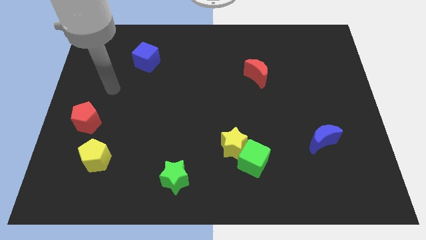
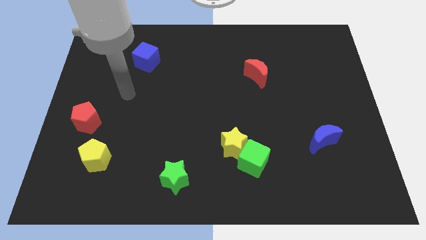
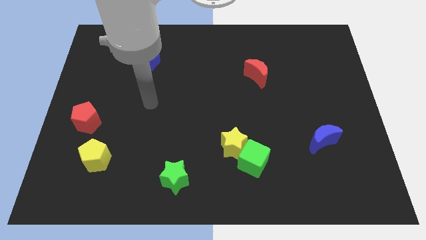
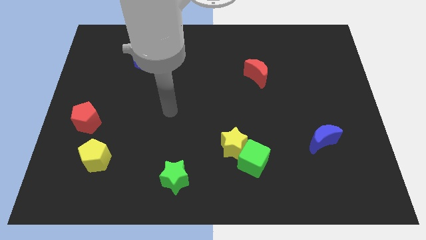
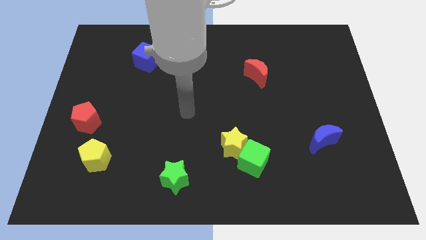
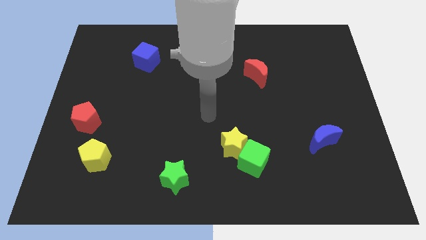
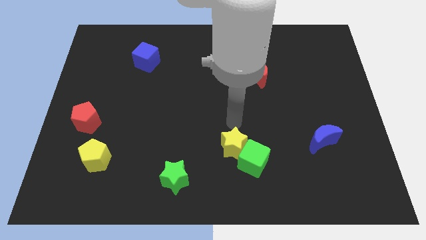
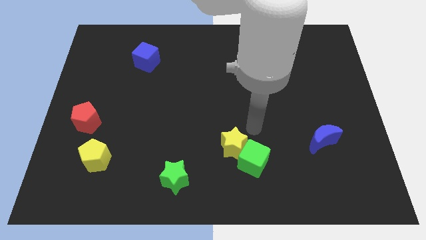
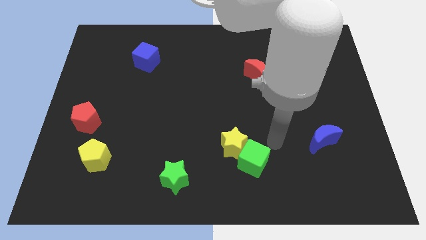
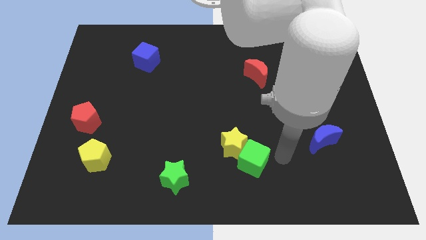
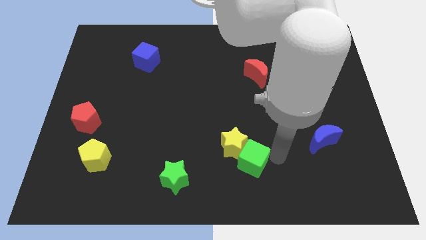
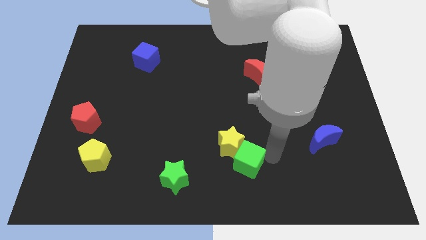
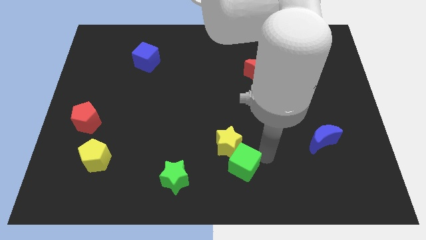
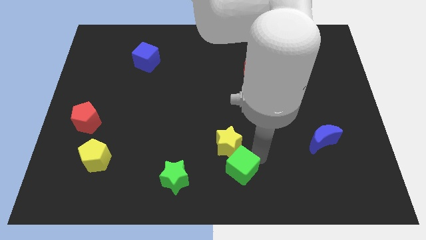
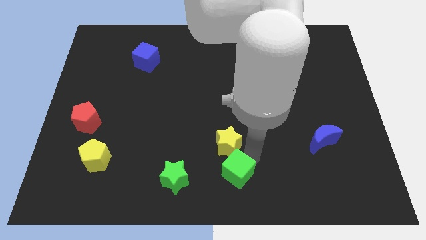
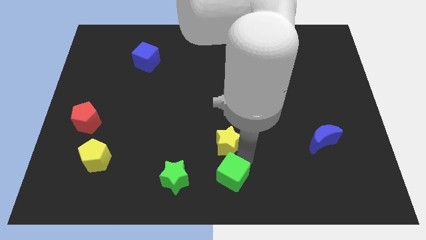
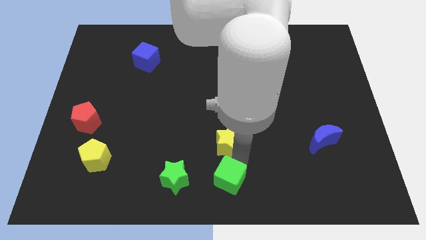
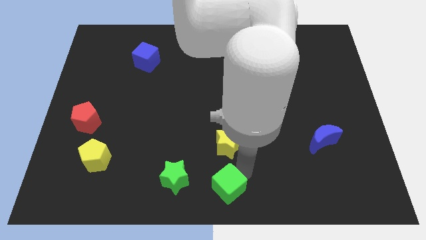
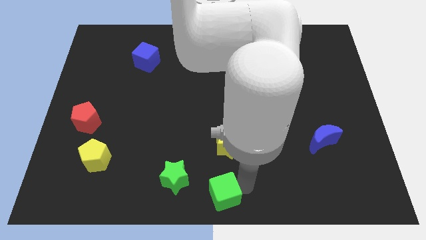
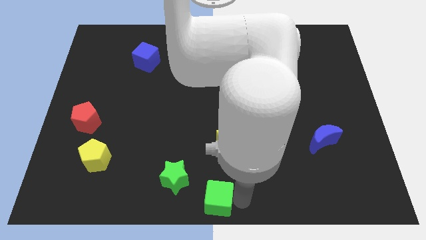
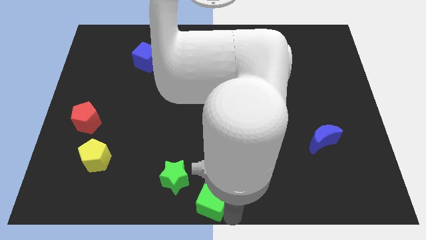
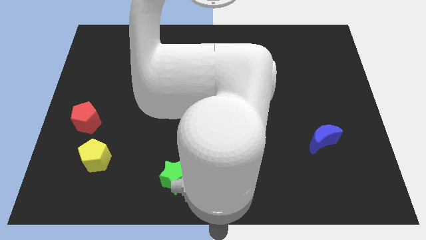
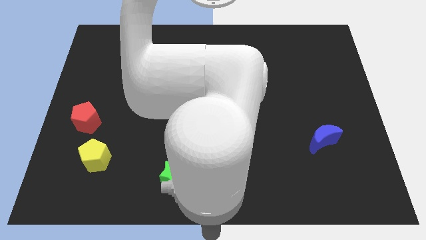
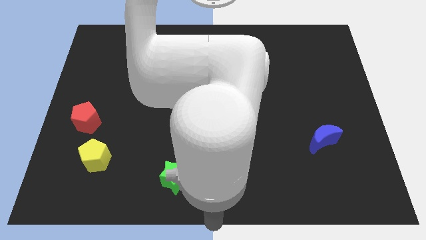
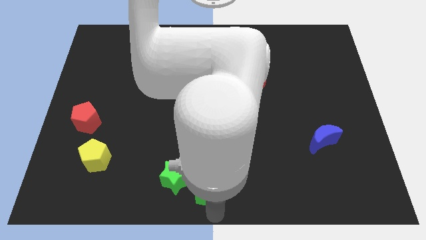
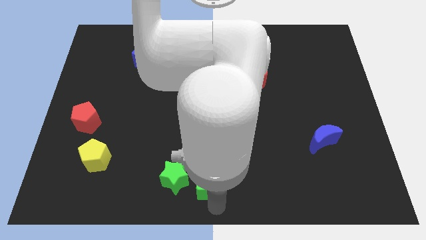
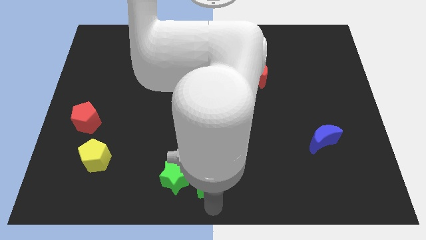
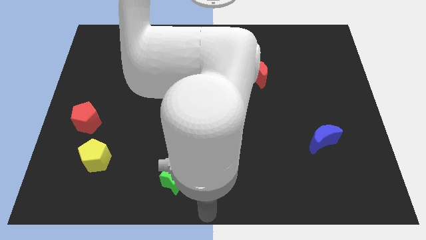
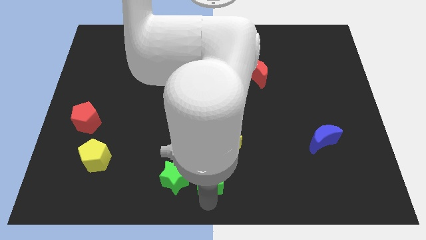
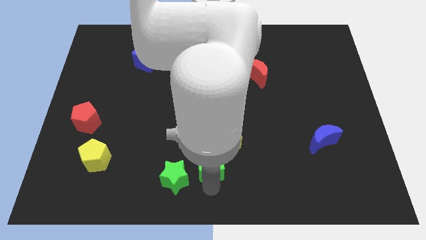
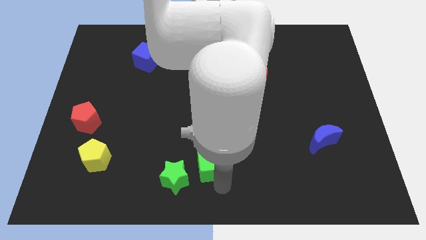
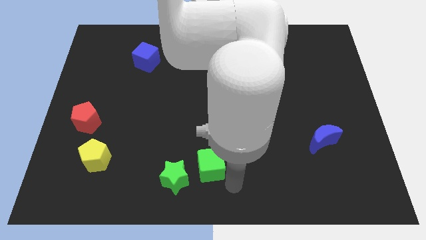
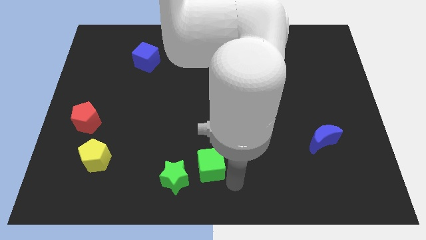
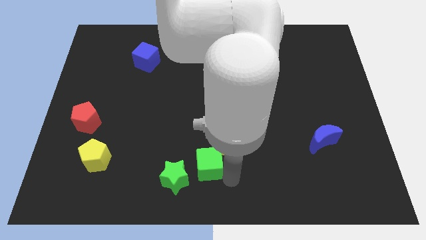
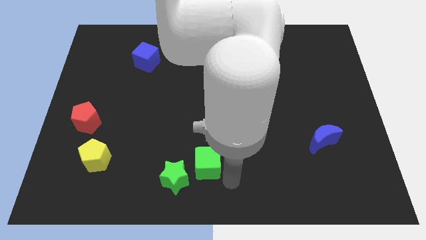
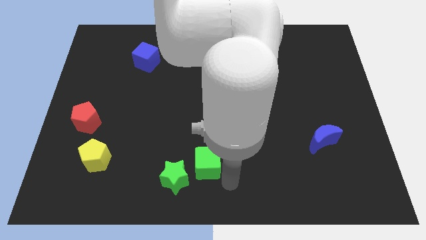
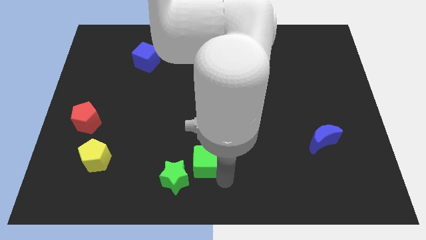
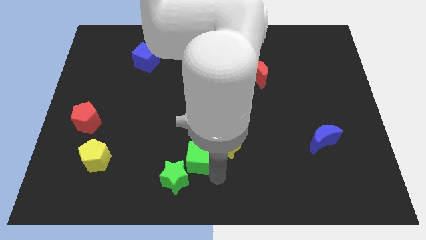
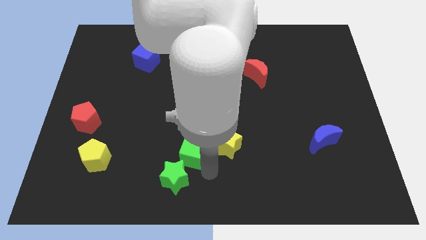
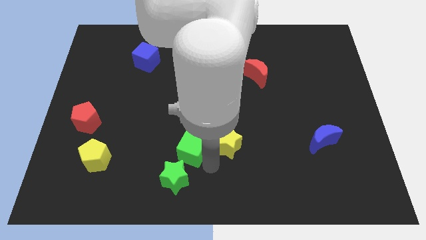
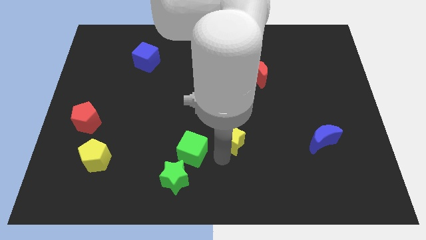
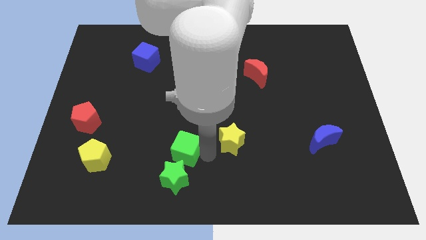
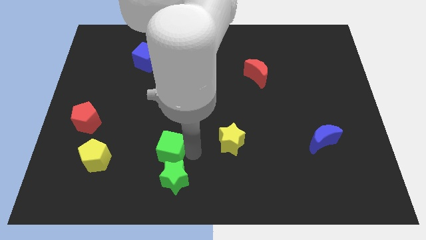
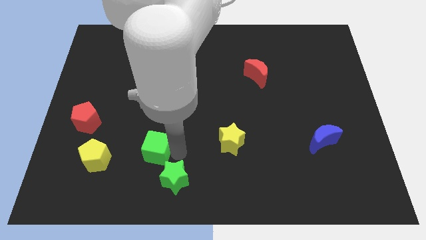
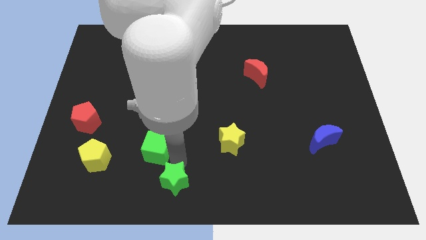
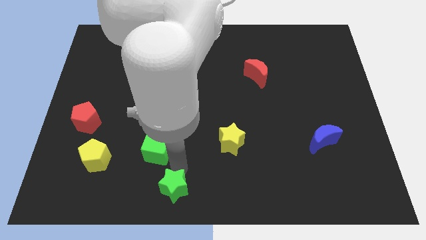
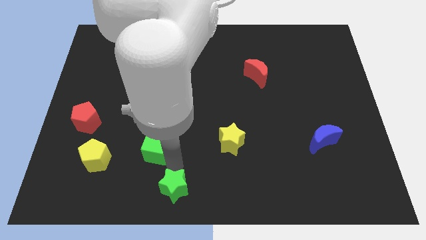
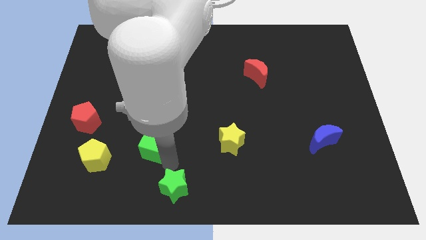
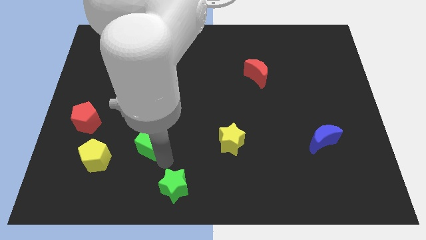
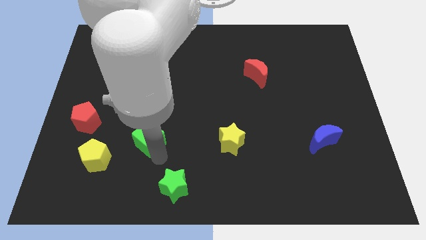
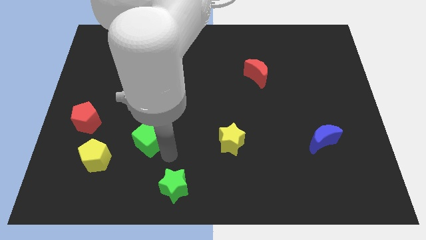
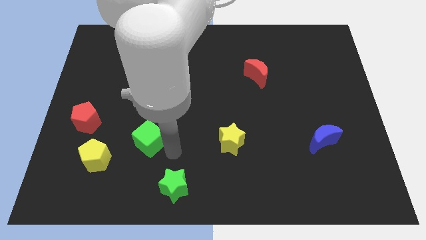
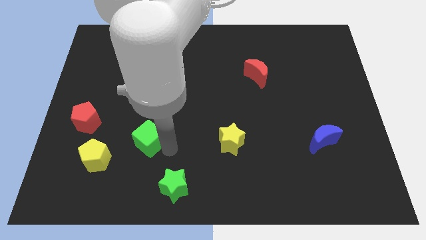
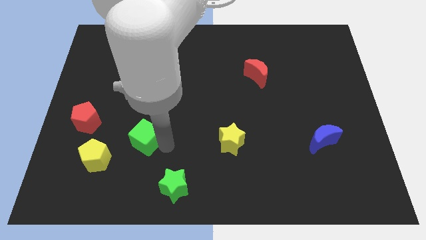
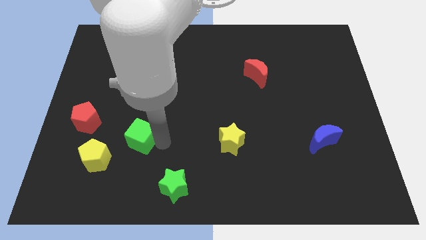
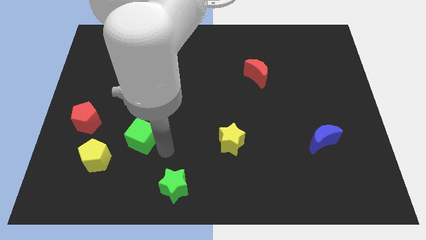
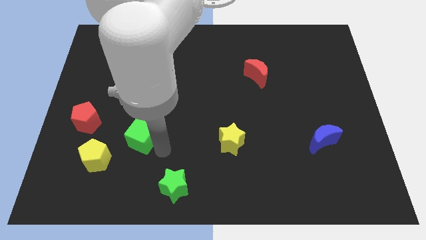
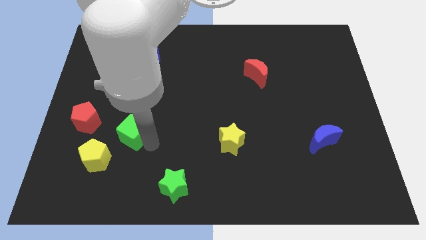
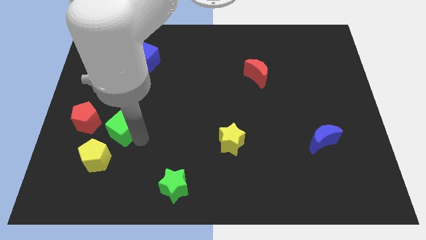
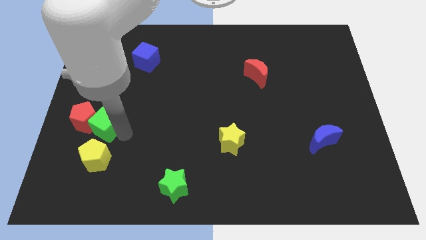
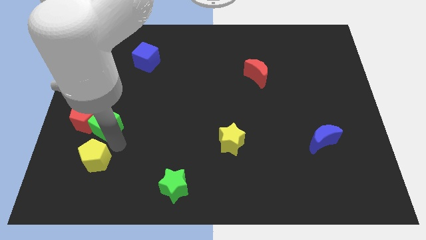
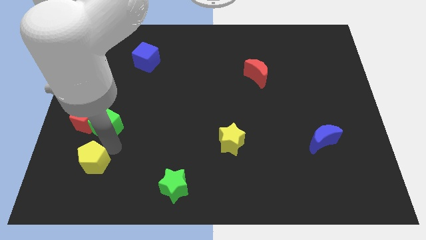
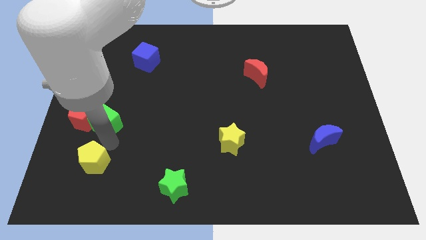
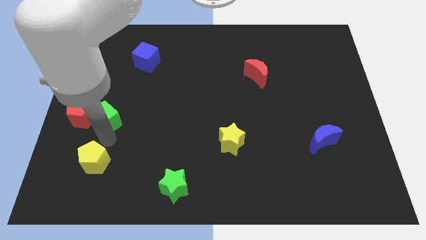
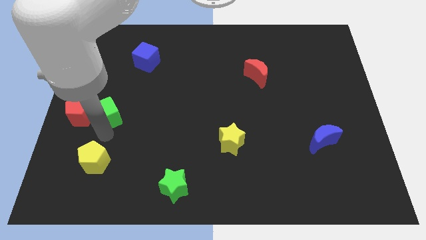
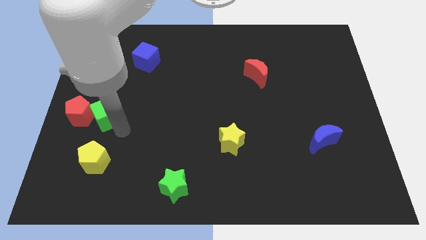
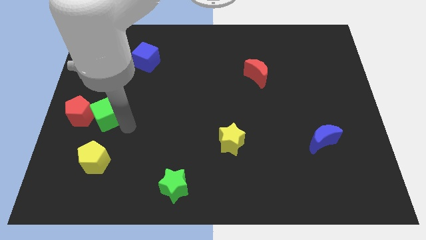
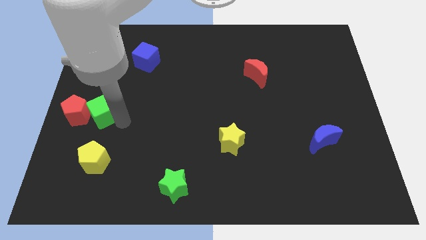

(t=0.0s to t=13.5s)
put the green cube to the left side of the board
